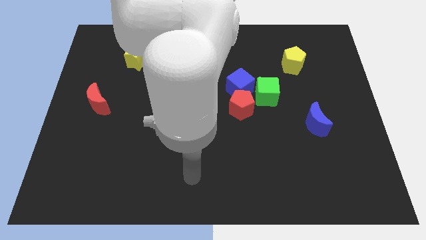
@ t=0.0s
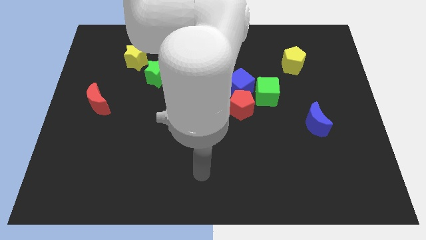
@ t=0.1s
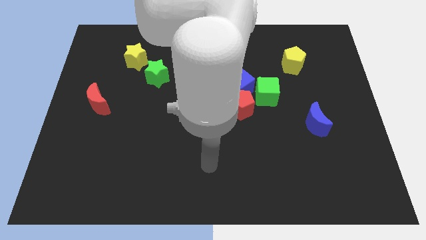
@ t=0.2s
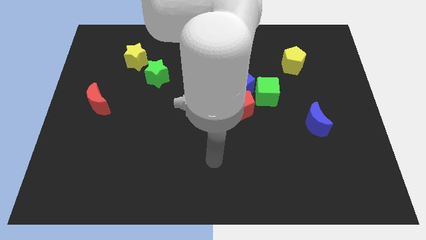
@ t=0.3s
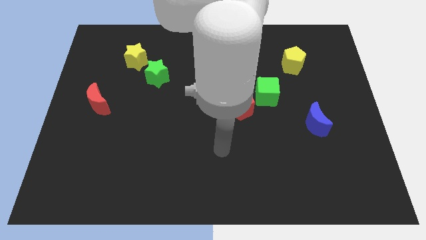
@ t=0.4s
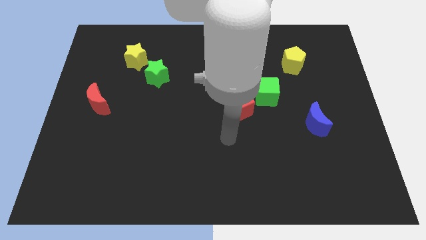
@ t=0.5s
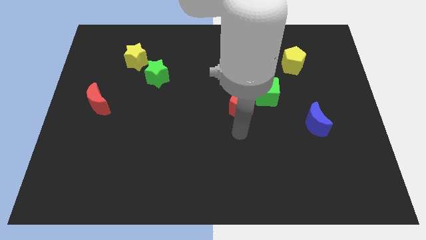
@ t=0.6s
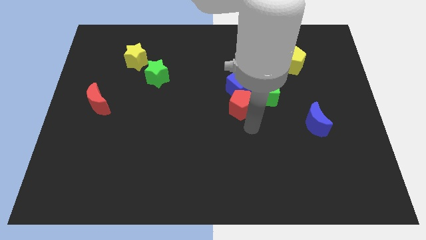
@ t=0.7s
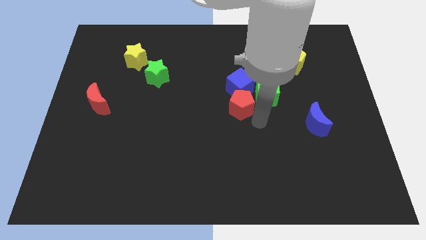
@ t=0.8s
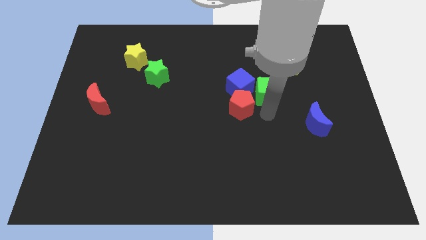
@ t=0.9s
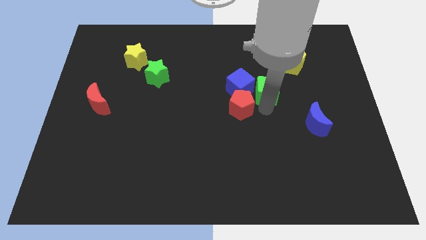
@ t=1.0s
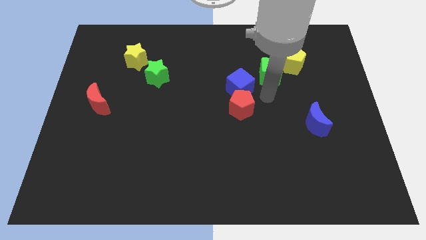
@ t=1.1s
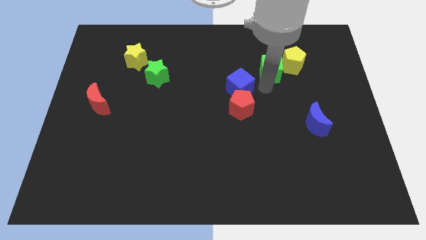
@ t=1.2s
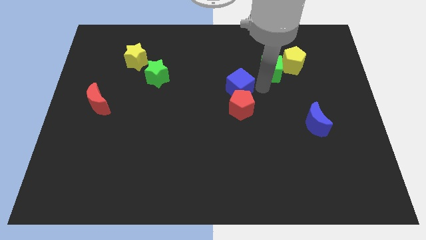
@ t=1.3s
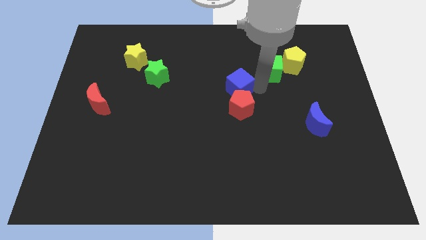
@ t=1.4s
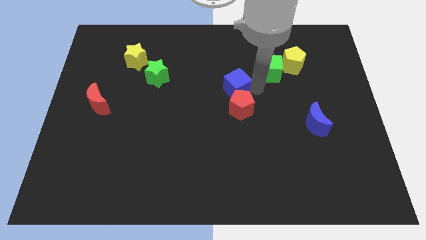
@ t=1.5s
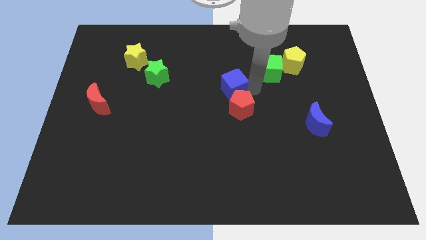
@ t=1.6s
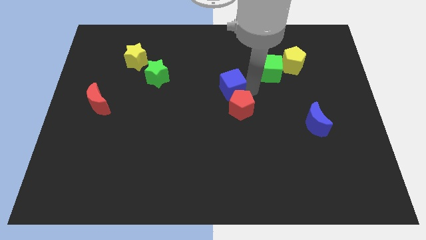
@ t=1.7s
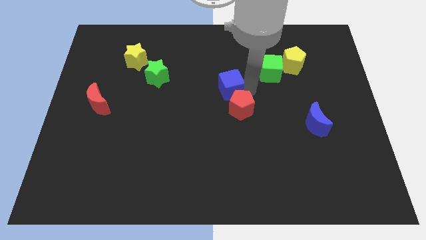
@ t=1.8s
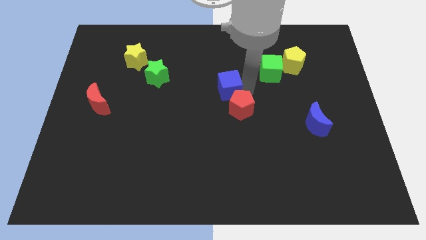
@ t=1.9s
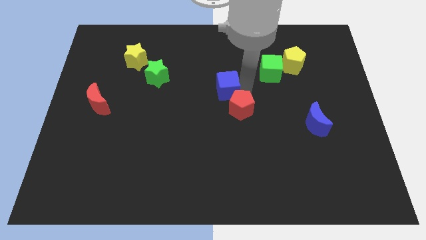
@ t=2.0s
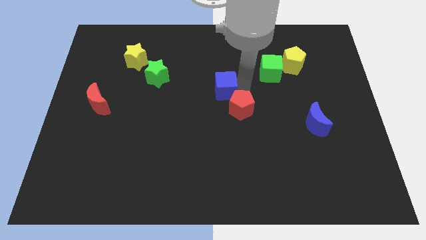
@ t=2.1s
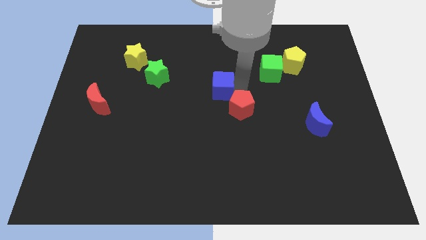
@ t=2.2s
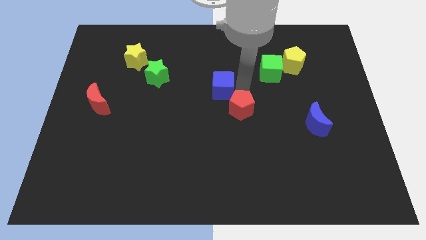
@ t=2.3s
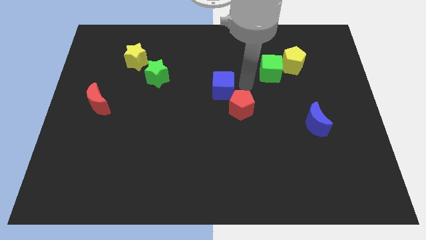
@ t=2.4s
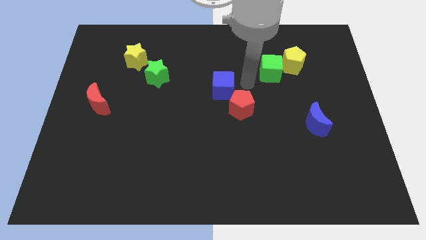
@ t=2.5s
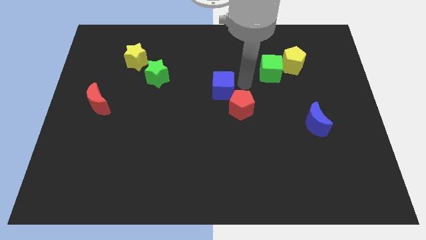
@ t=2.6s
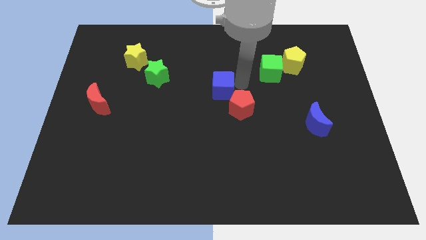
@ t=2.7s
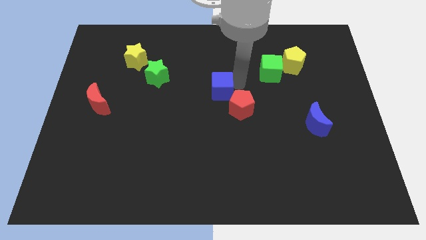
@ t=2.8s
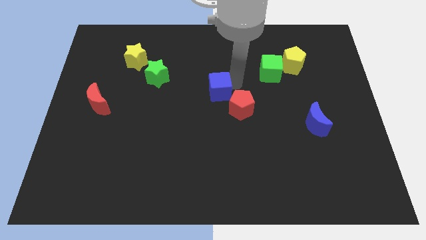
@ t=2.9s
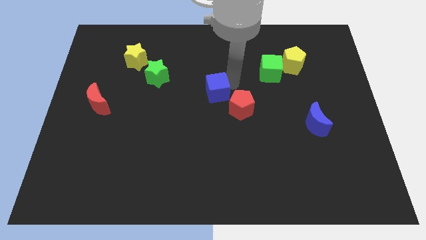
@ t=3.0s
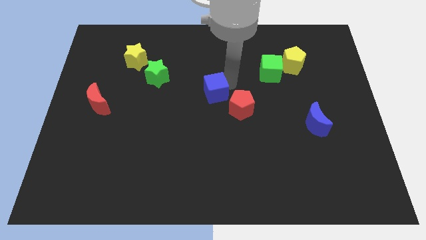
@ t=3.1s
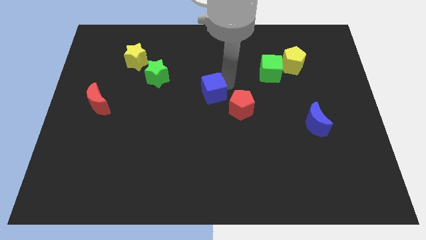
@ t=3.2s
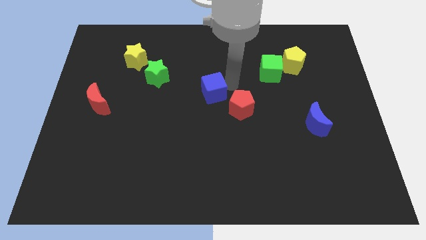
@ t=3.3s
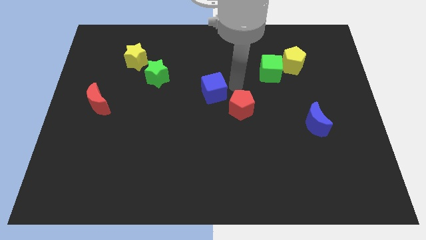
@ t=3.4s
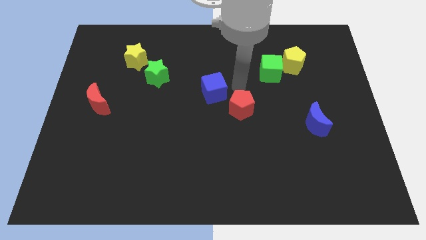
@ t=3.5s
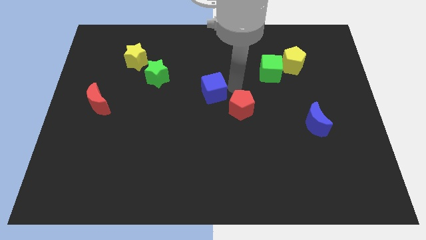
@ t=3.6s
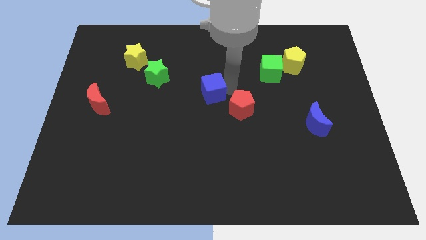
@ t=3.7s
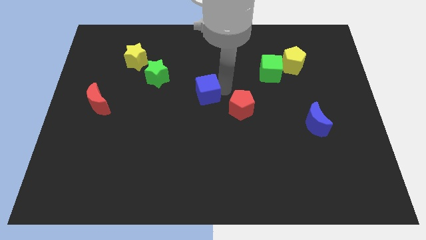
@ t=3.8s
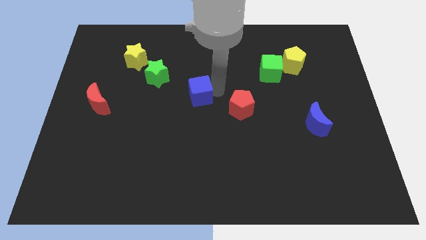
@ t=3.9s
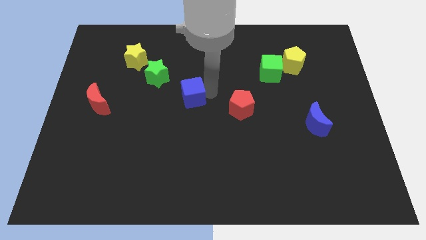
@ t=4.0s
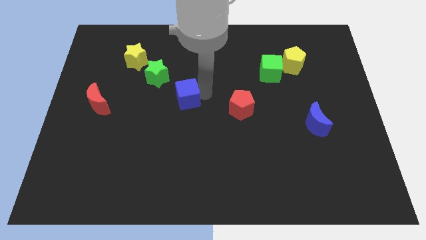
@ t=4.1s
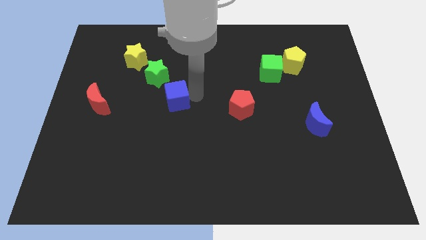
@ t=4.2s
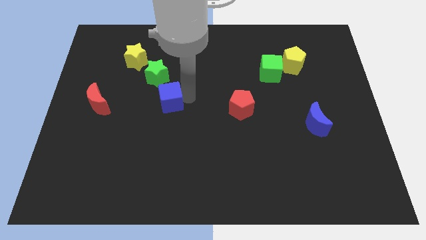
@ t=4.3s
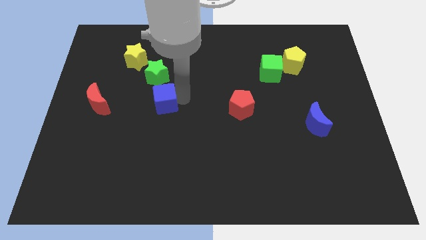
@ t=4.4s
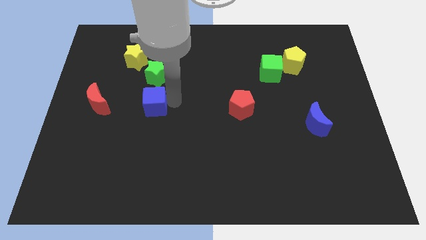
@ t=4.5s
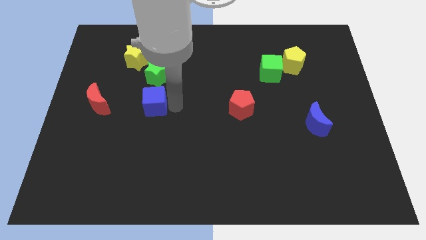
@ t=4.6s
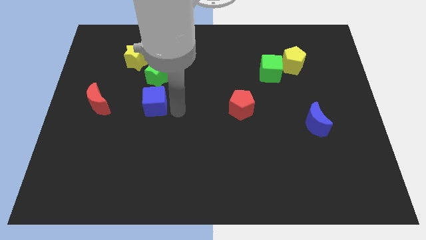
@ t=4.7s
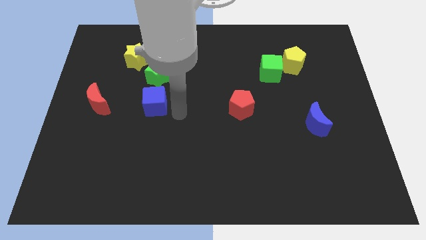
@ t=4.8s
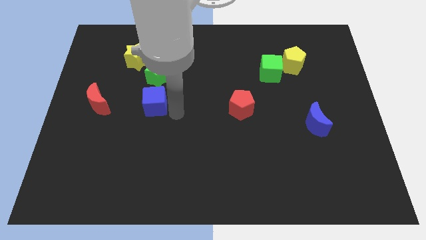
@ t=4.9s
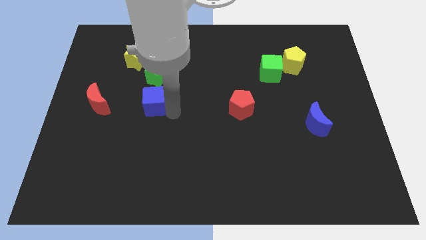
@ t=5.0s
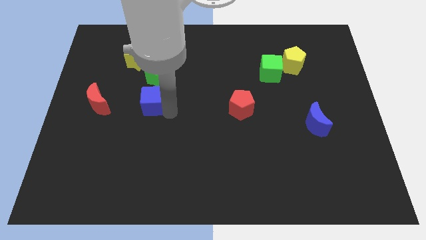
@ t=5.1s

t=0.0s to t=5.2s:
move the blue cube to the left

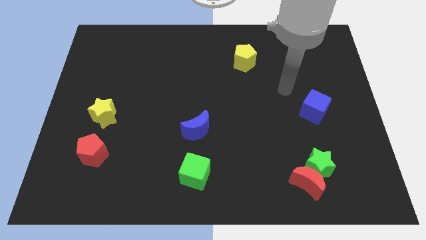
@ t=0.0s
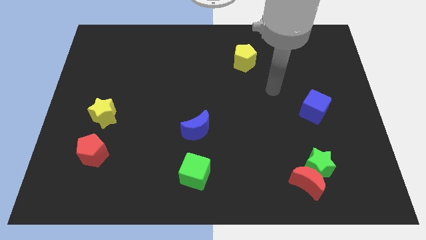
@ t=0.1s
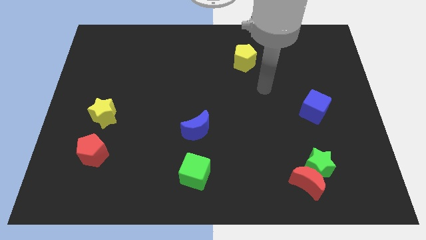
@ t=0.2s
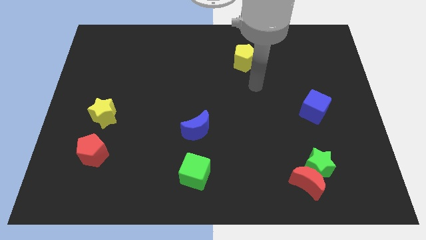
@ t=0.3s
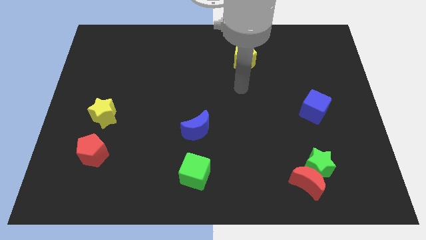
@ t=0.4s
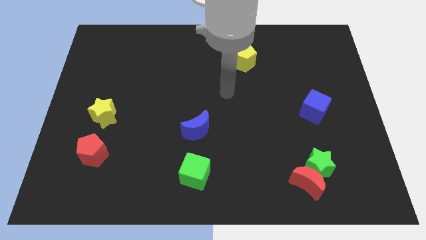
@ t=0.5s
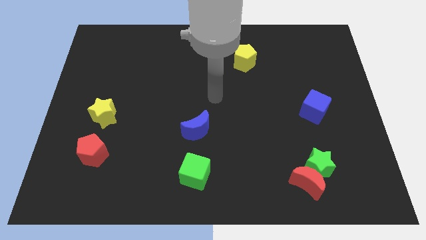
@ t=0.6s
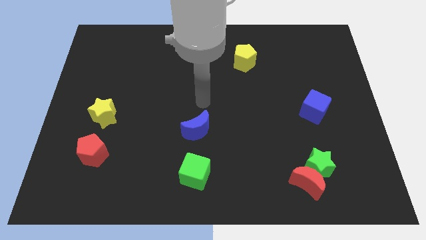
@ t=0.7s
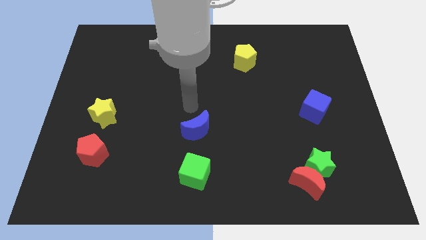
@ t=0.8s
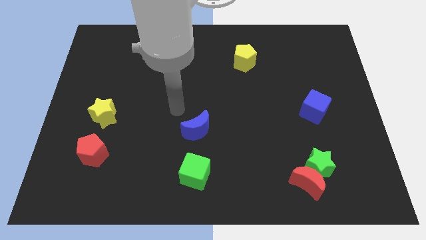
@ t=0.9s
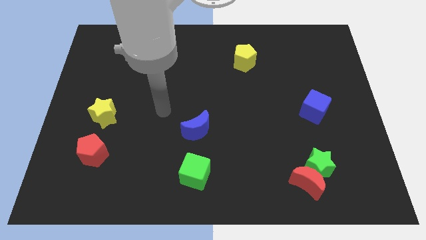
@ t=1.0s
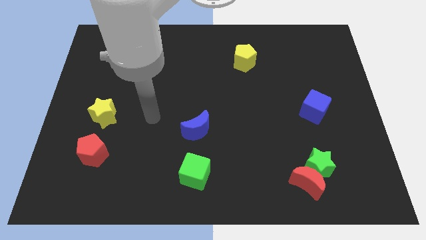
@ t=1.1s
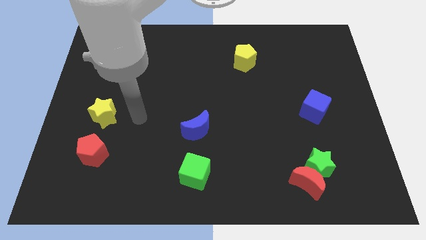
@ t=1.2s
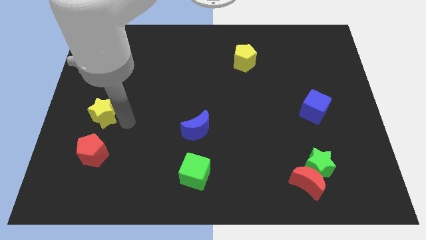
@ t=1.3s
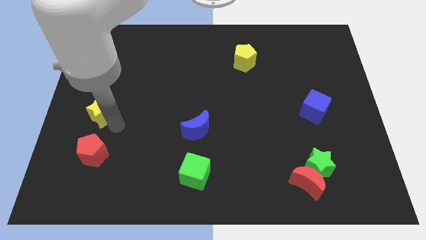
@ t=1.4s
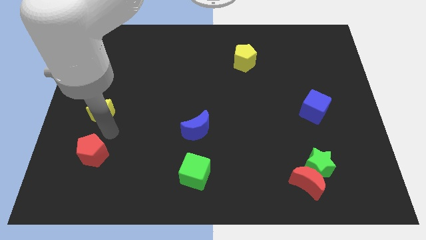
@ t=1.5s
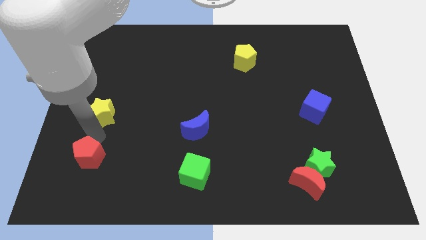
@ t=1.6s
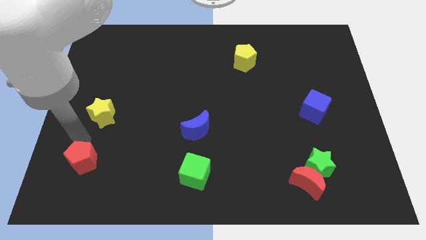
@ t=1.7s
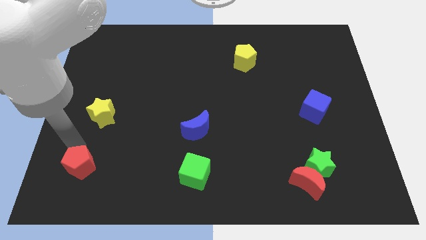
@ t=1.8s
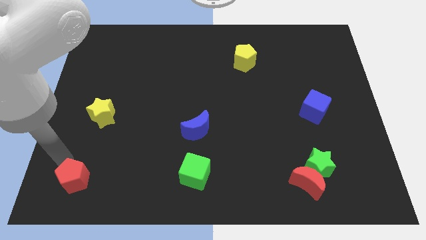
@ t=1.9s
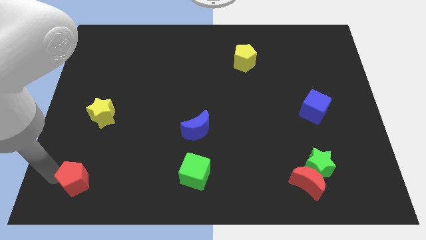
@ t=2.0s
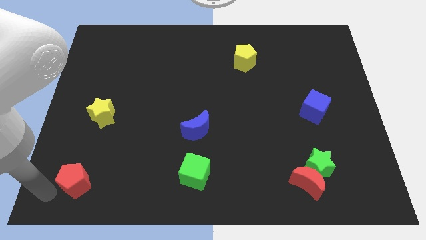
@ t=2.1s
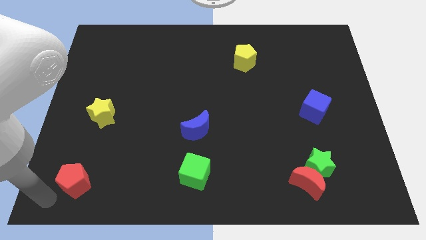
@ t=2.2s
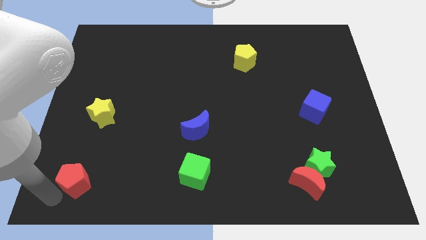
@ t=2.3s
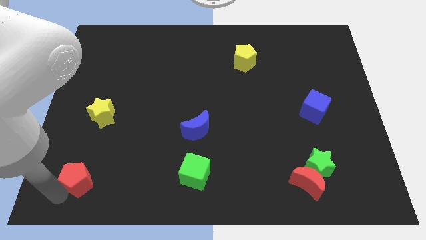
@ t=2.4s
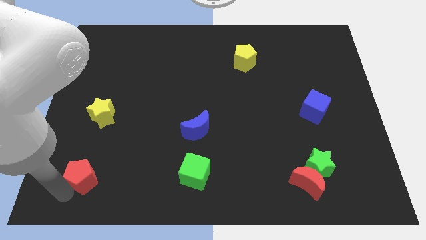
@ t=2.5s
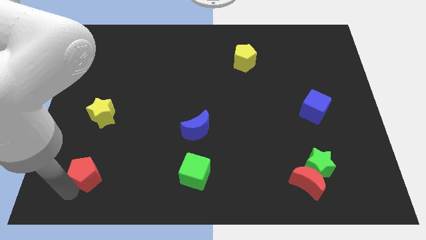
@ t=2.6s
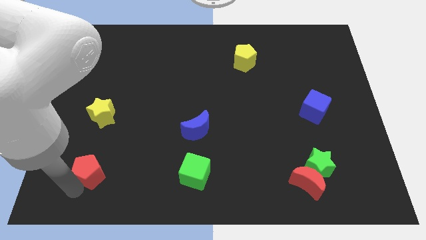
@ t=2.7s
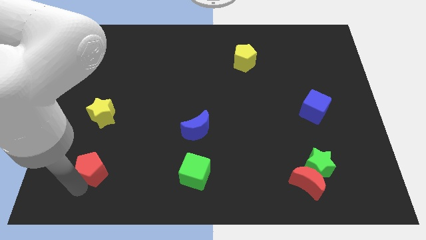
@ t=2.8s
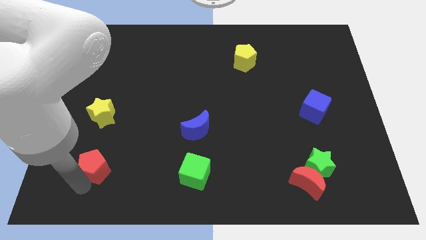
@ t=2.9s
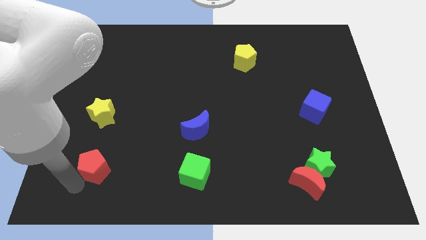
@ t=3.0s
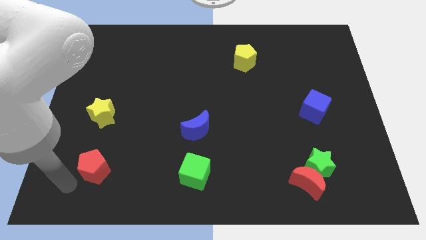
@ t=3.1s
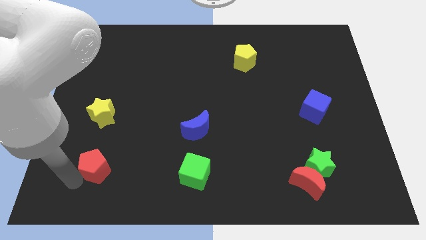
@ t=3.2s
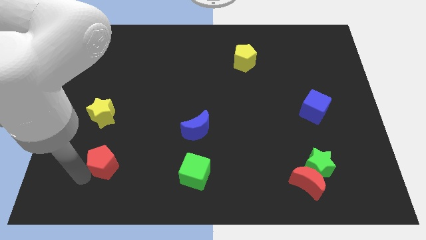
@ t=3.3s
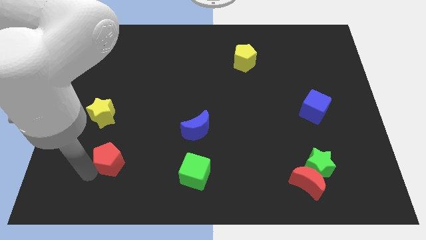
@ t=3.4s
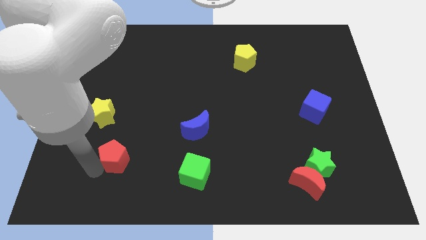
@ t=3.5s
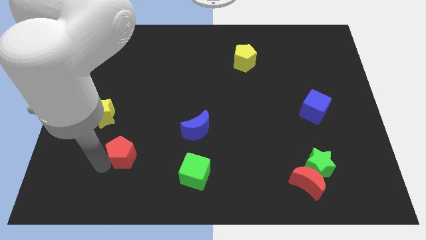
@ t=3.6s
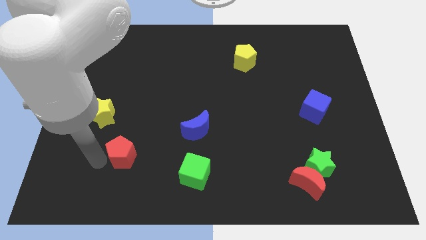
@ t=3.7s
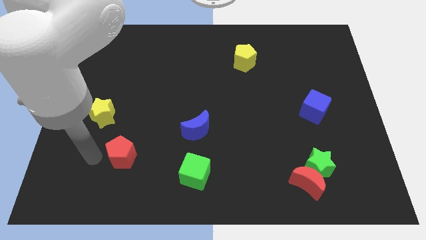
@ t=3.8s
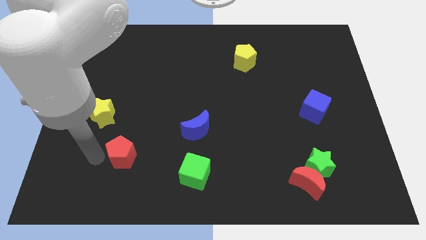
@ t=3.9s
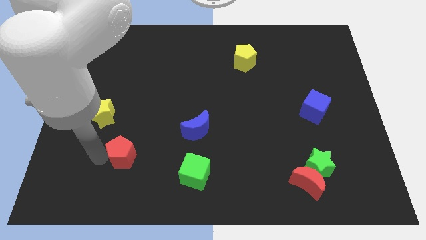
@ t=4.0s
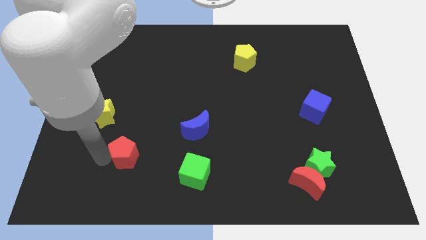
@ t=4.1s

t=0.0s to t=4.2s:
push the red pentagon right somewhat
